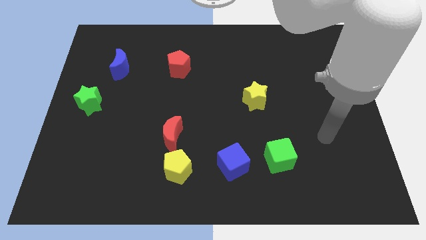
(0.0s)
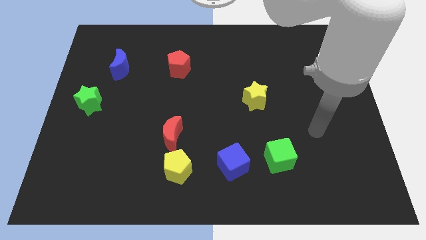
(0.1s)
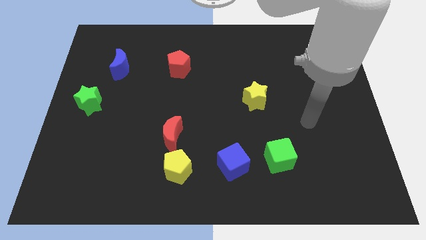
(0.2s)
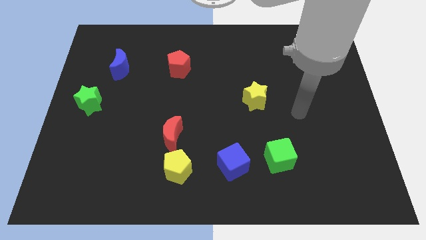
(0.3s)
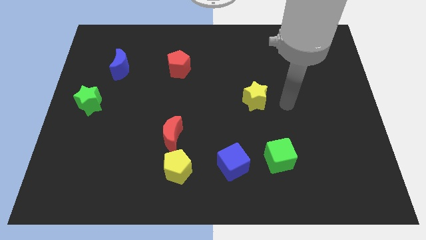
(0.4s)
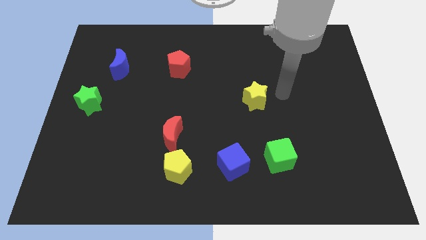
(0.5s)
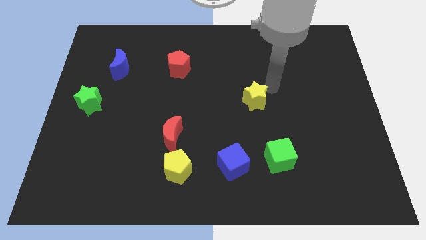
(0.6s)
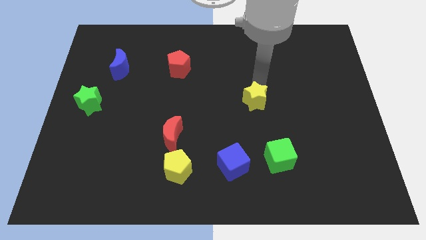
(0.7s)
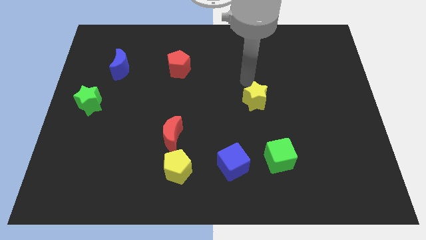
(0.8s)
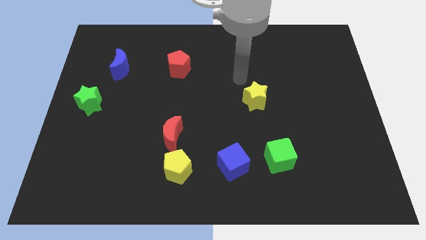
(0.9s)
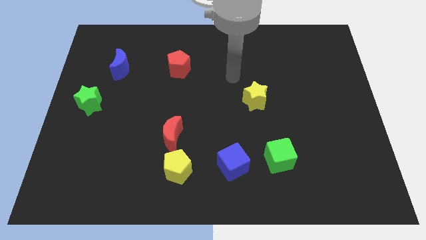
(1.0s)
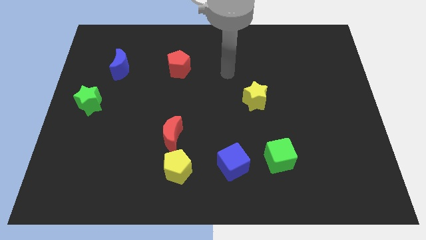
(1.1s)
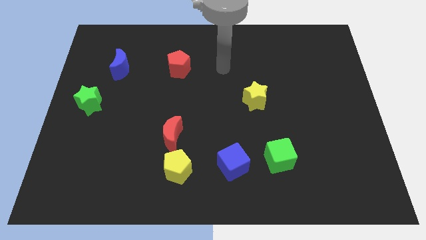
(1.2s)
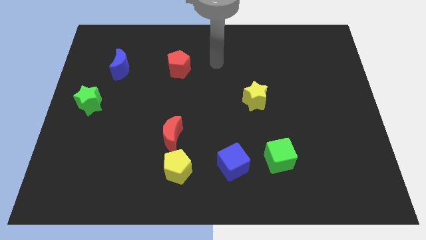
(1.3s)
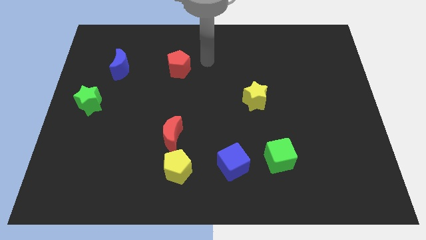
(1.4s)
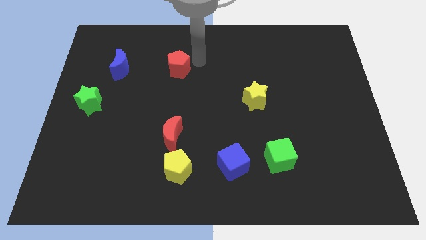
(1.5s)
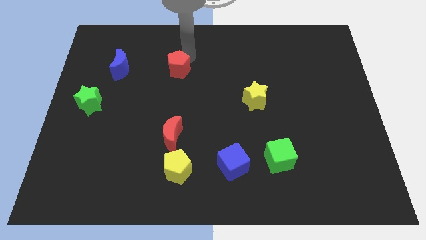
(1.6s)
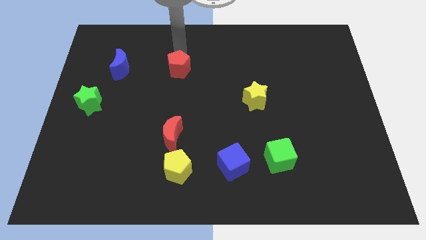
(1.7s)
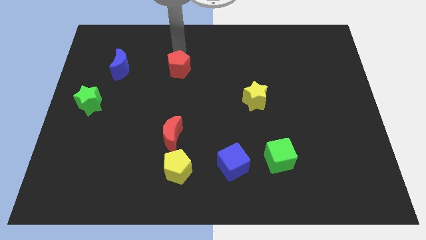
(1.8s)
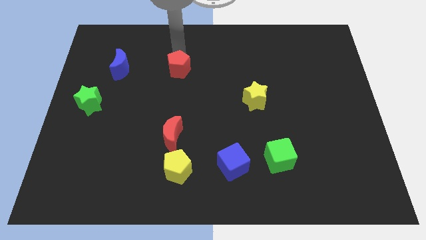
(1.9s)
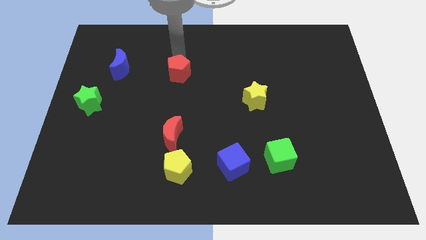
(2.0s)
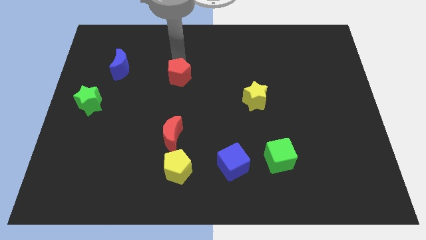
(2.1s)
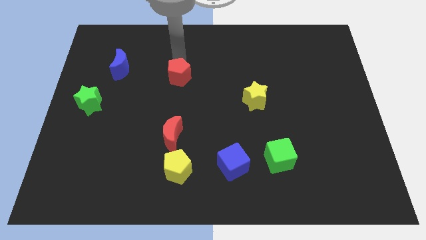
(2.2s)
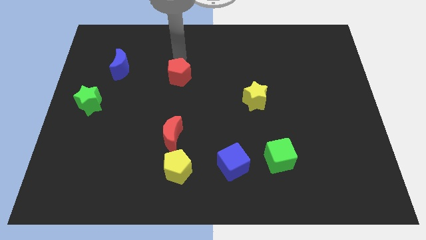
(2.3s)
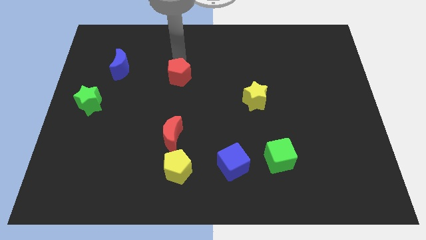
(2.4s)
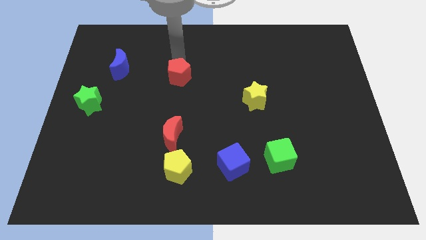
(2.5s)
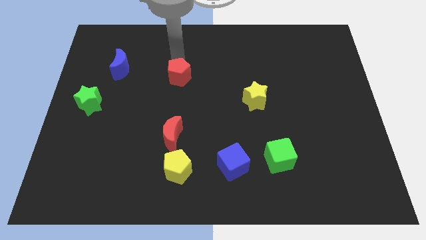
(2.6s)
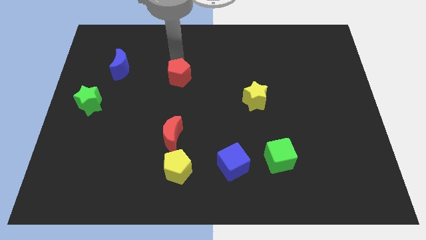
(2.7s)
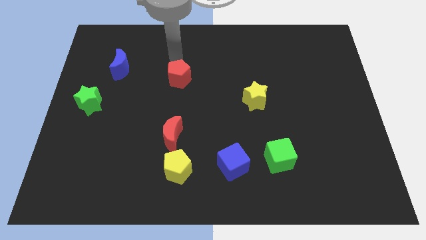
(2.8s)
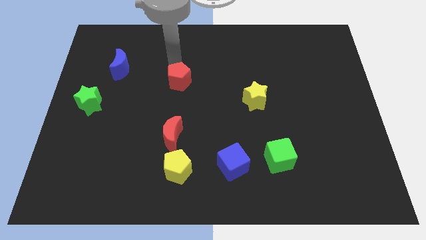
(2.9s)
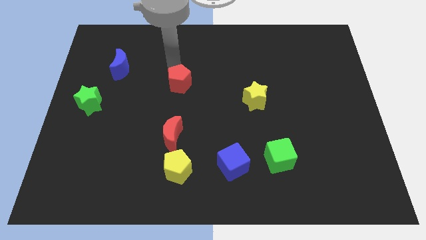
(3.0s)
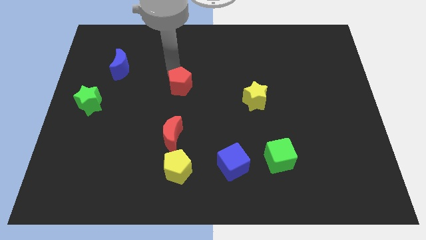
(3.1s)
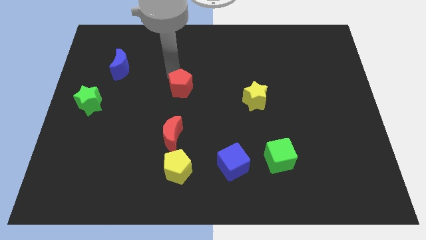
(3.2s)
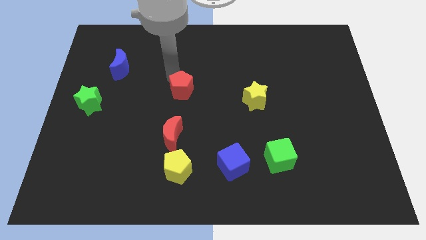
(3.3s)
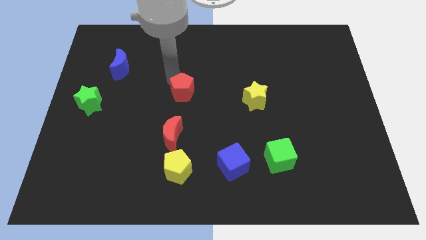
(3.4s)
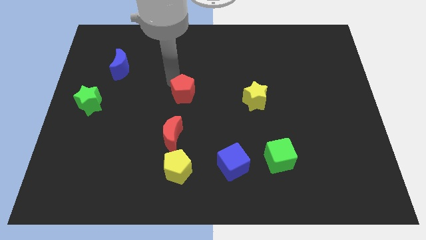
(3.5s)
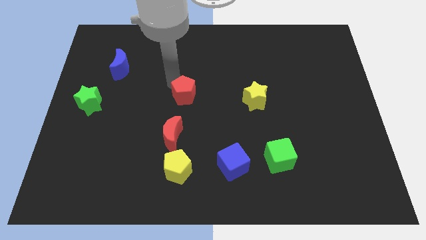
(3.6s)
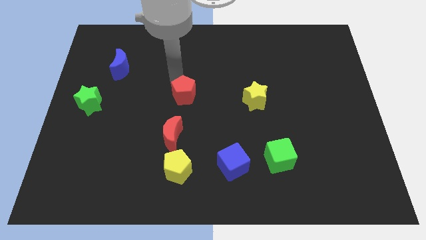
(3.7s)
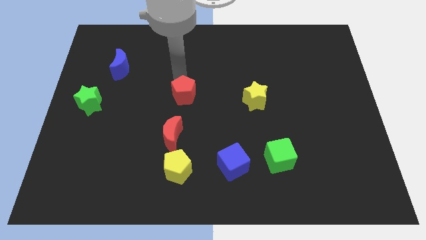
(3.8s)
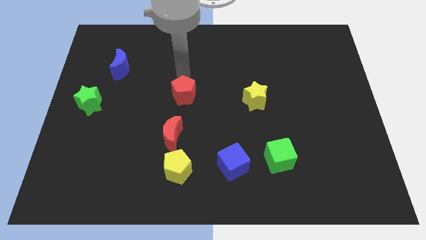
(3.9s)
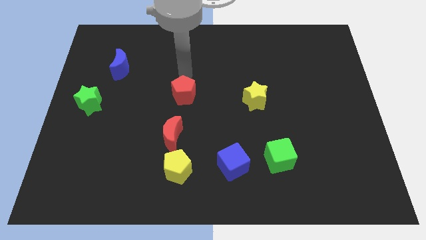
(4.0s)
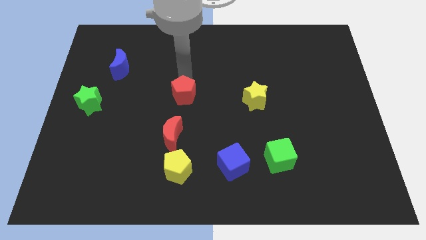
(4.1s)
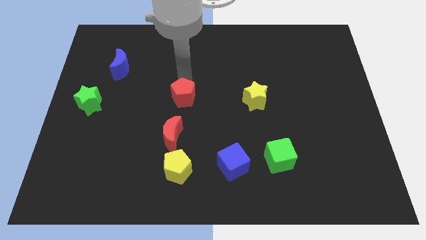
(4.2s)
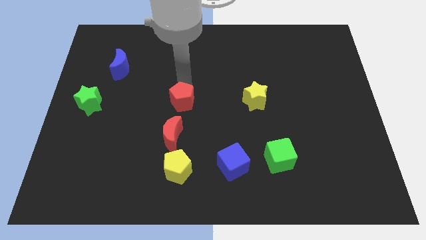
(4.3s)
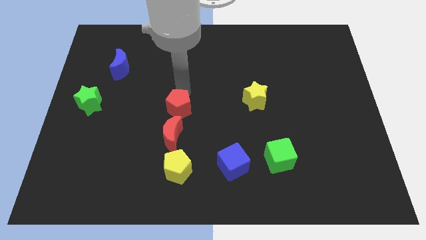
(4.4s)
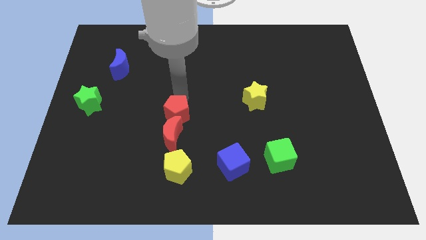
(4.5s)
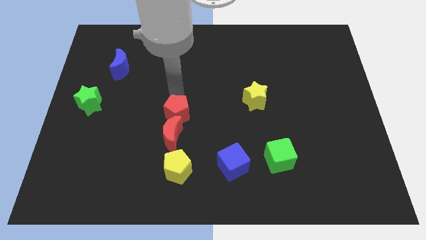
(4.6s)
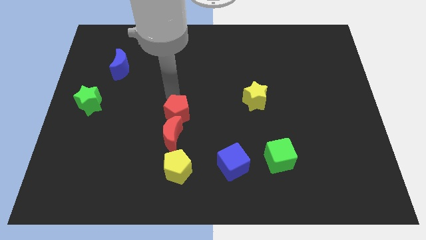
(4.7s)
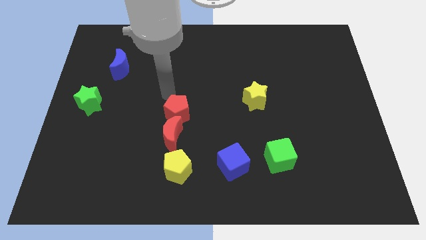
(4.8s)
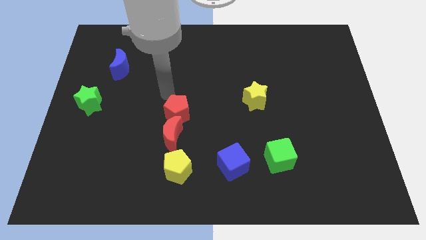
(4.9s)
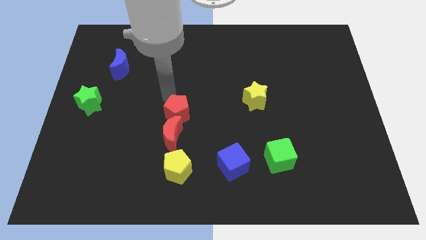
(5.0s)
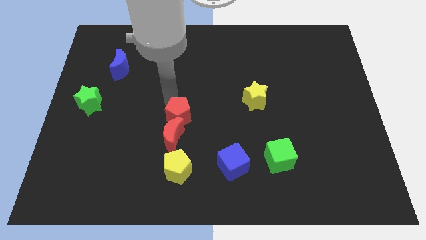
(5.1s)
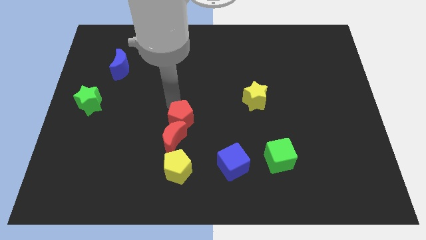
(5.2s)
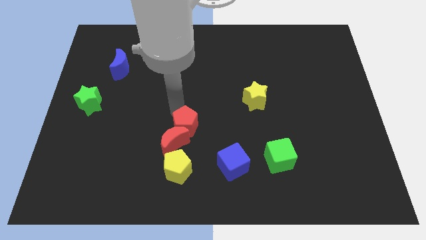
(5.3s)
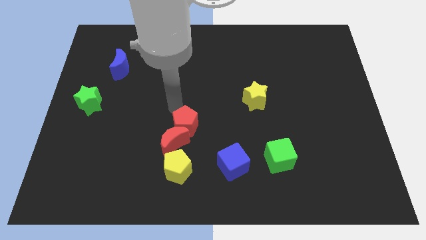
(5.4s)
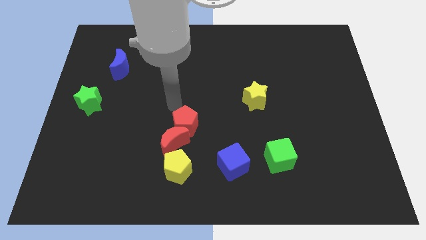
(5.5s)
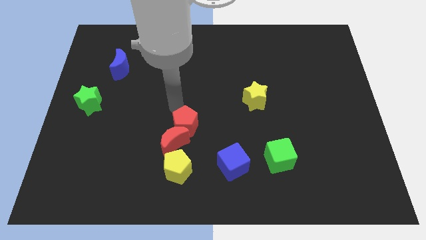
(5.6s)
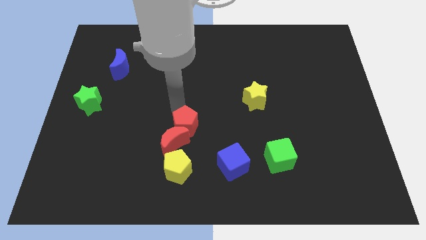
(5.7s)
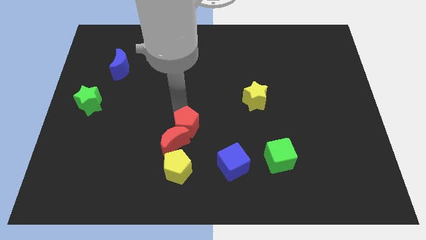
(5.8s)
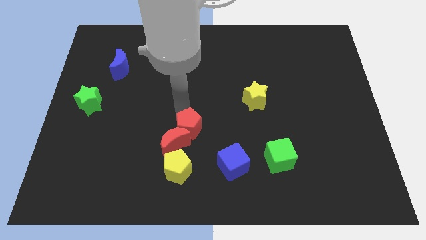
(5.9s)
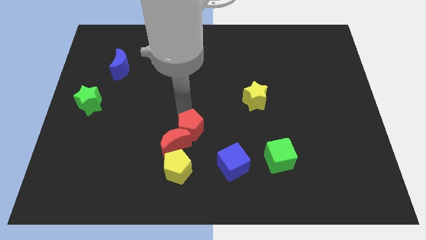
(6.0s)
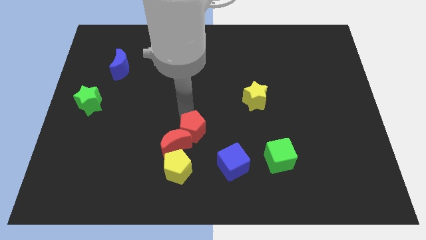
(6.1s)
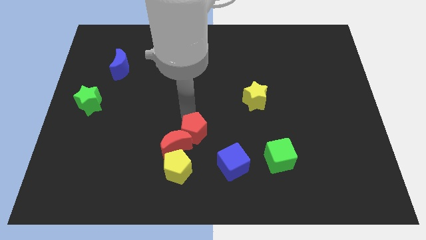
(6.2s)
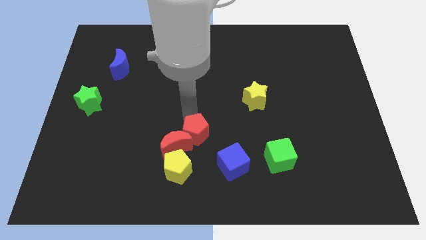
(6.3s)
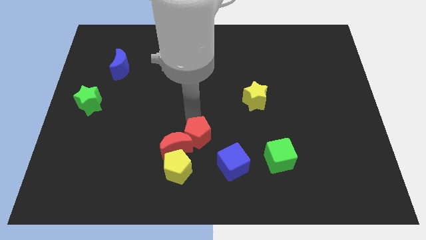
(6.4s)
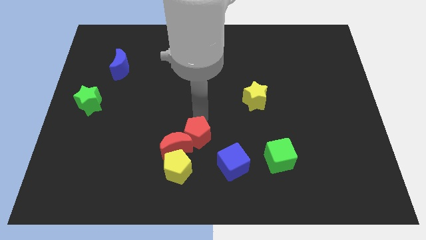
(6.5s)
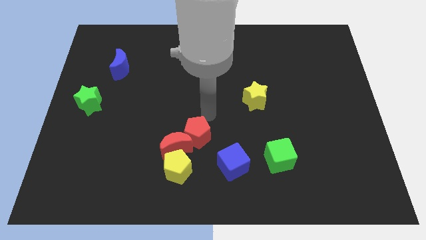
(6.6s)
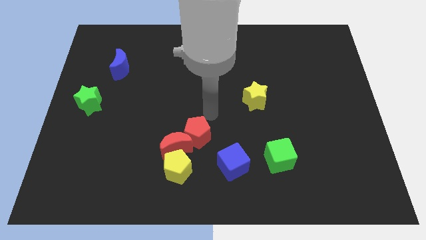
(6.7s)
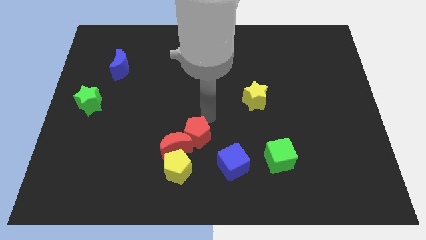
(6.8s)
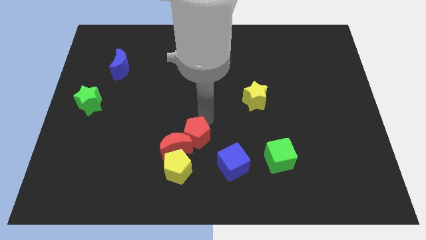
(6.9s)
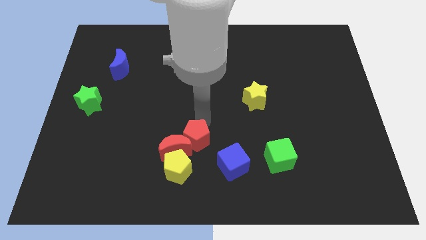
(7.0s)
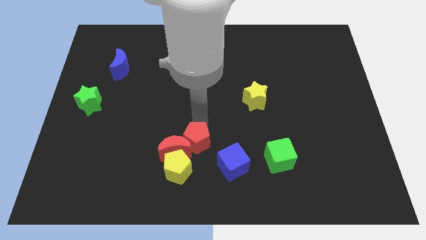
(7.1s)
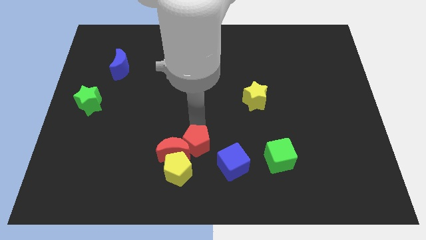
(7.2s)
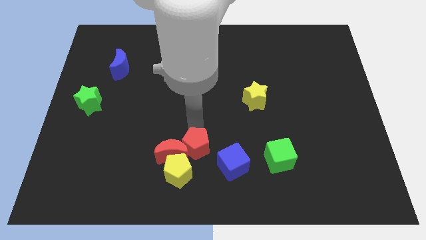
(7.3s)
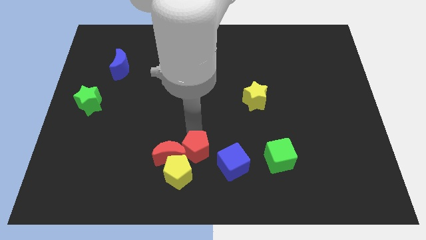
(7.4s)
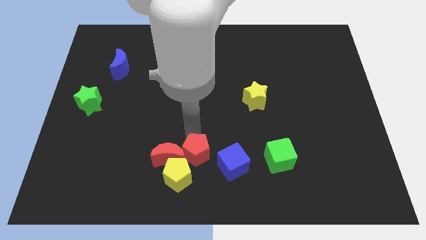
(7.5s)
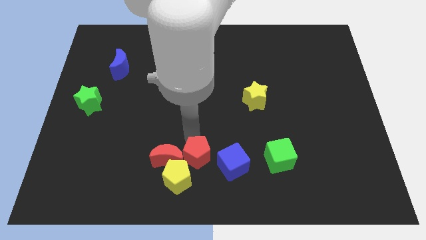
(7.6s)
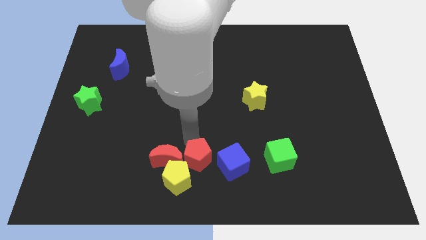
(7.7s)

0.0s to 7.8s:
move the red pentagon close to the yellow pentagon
